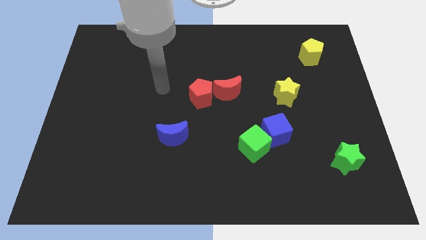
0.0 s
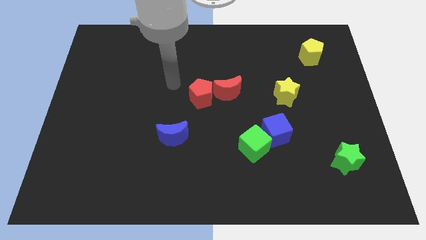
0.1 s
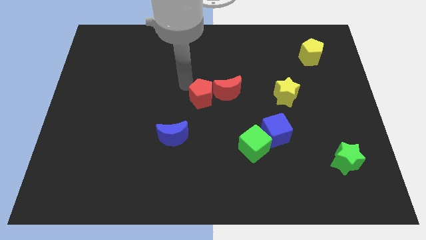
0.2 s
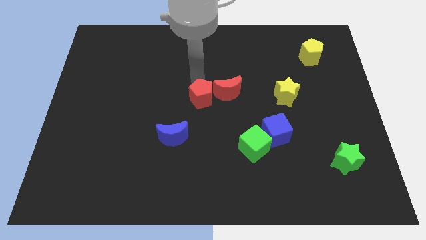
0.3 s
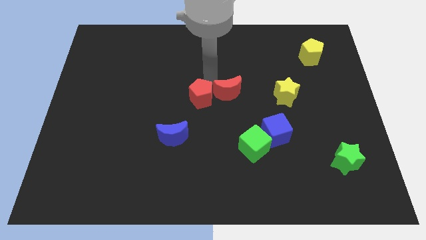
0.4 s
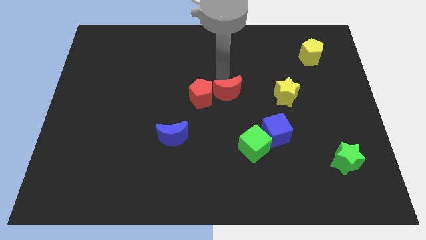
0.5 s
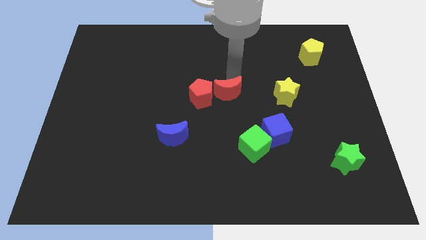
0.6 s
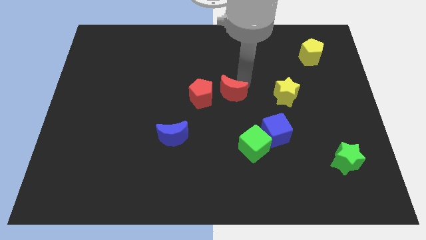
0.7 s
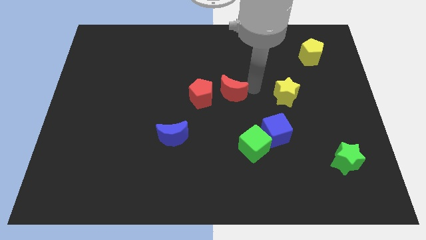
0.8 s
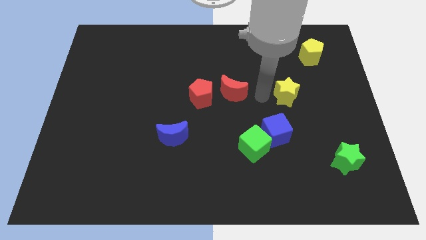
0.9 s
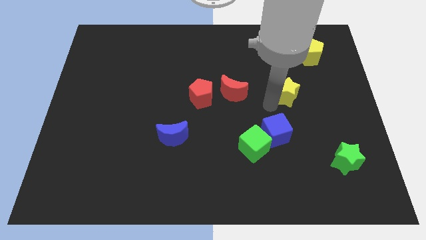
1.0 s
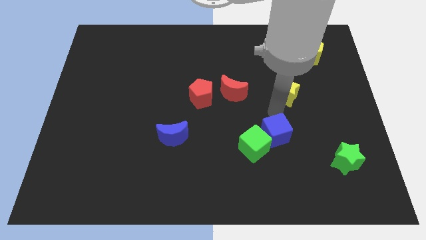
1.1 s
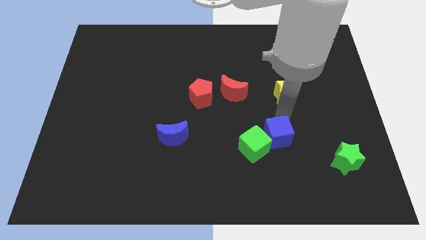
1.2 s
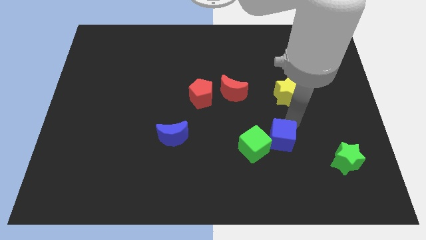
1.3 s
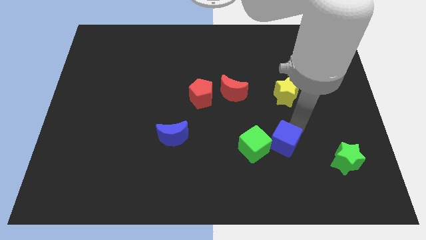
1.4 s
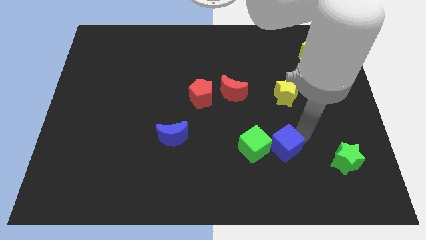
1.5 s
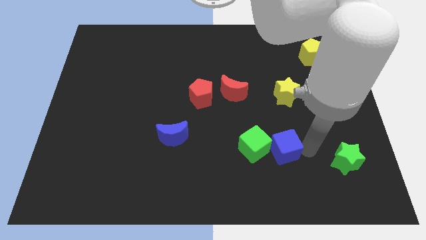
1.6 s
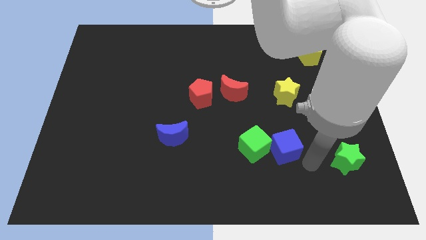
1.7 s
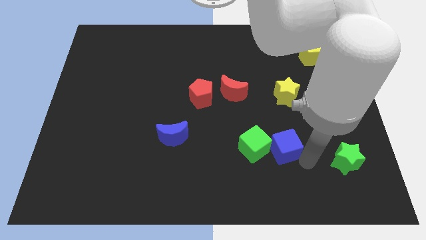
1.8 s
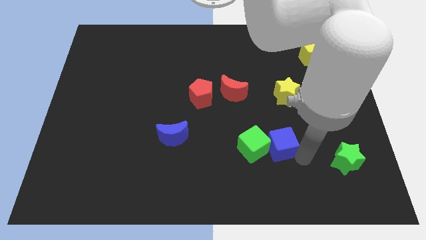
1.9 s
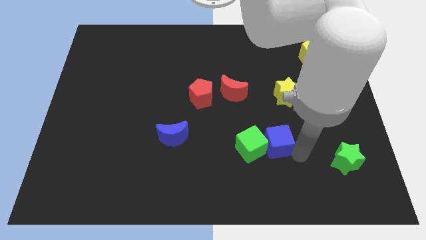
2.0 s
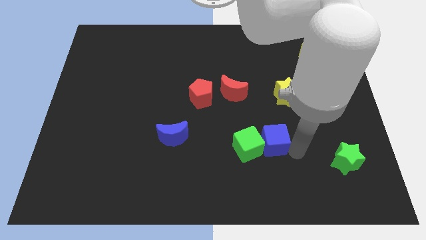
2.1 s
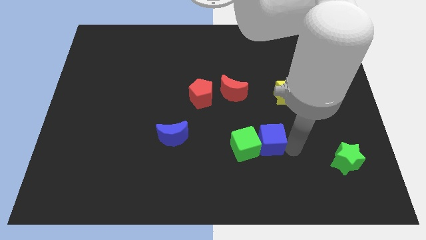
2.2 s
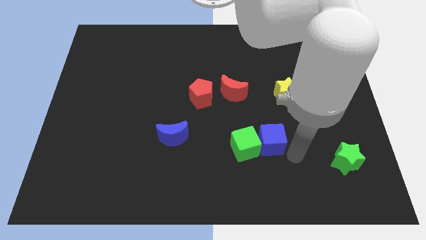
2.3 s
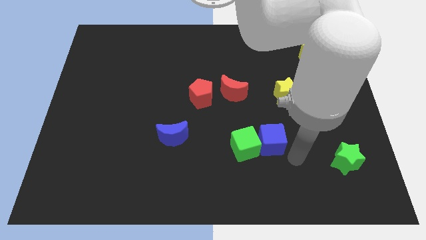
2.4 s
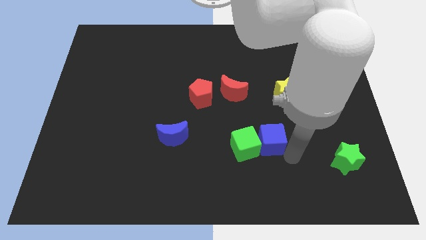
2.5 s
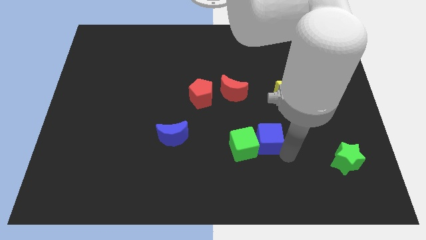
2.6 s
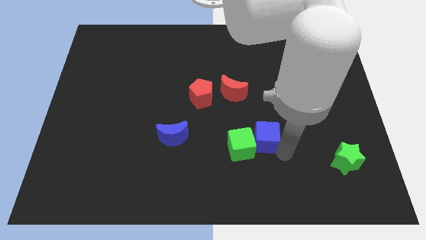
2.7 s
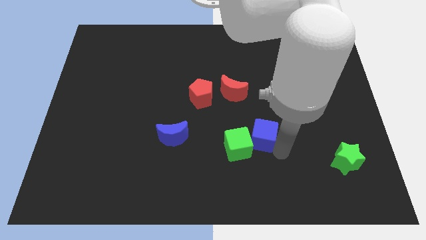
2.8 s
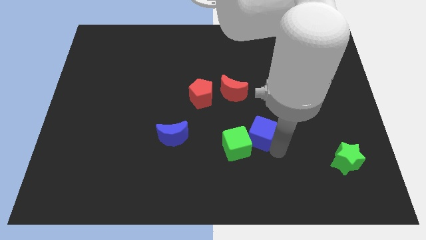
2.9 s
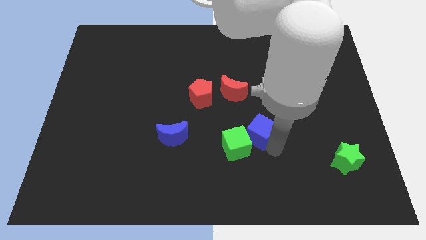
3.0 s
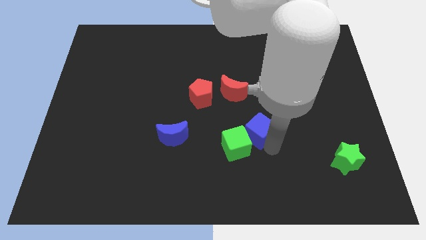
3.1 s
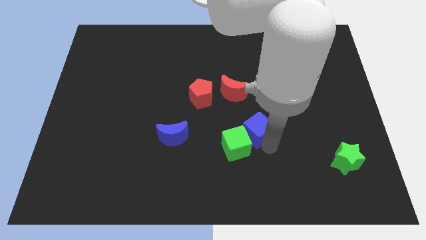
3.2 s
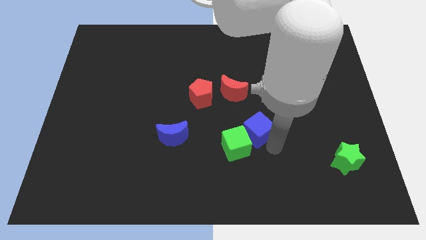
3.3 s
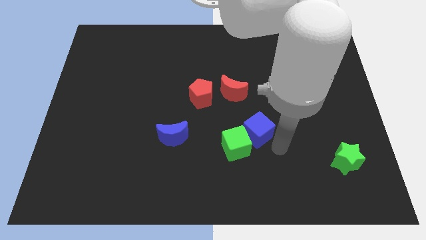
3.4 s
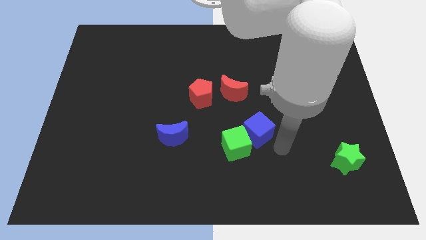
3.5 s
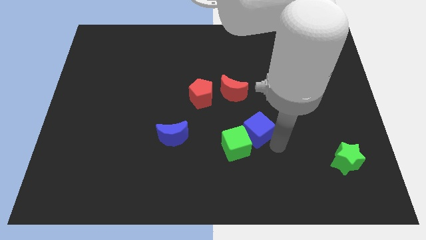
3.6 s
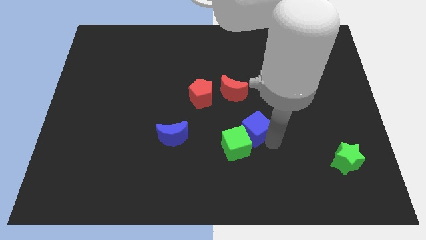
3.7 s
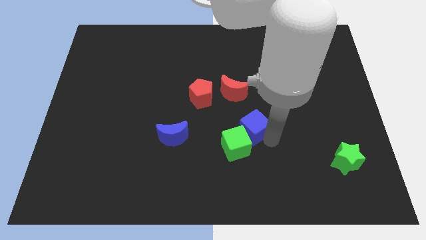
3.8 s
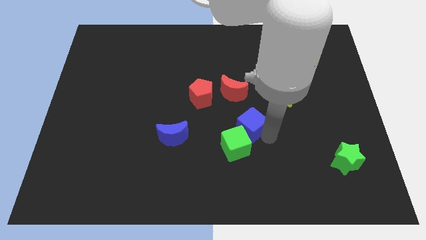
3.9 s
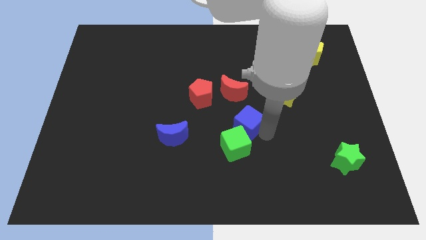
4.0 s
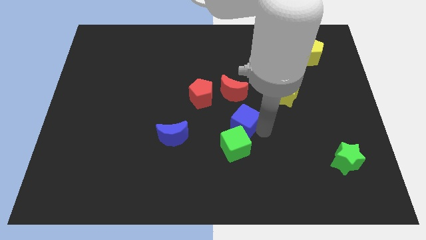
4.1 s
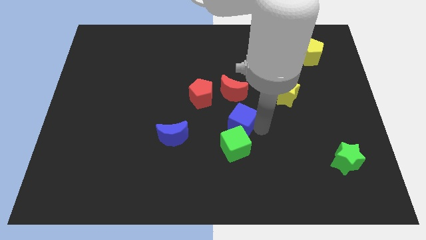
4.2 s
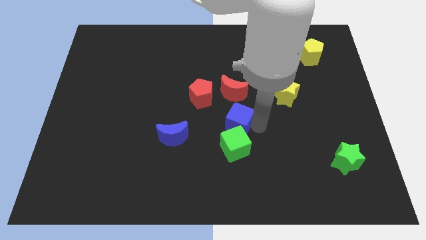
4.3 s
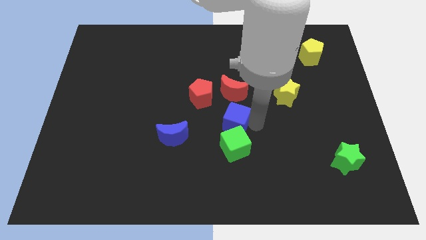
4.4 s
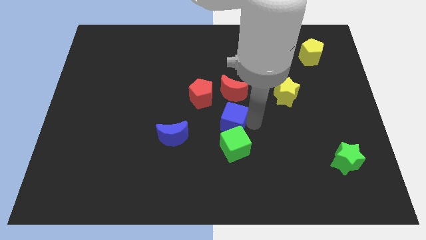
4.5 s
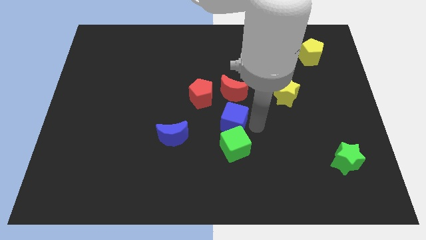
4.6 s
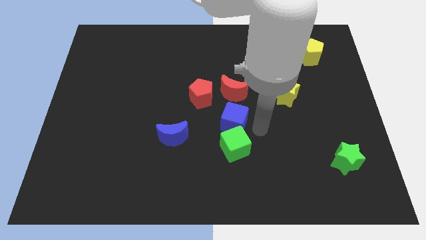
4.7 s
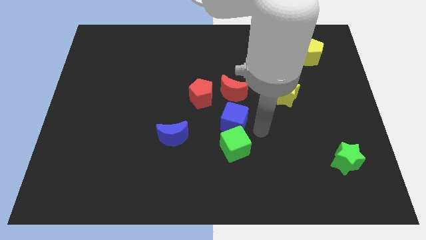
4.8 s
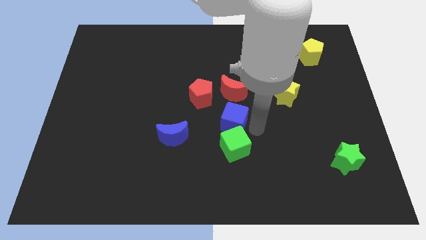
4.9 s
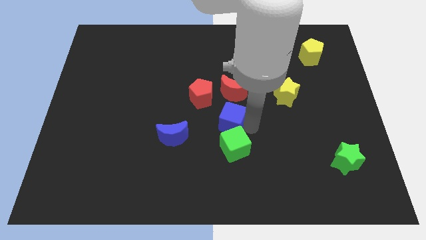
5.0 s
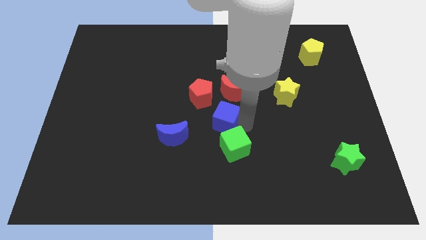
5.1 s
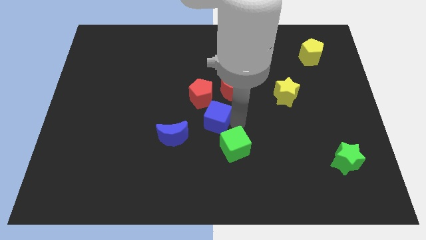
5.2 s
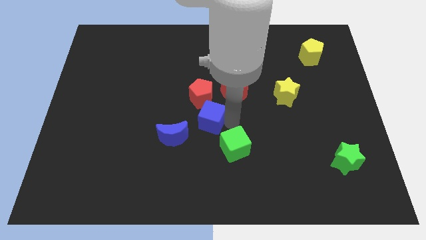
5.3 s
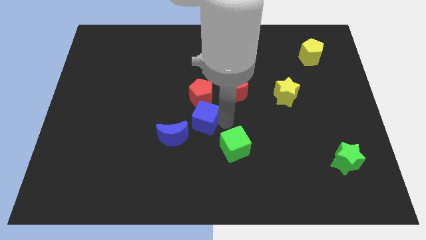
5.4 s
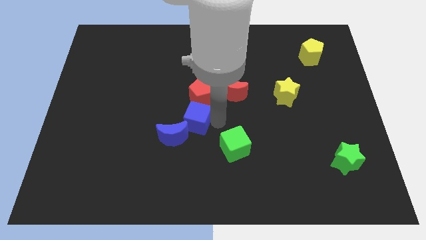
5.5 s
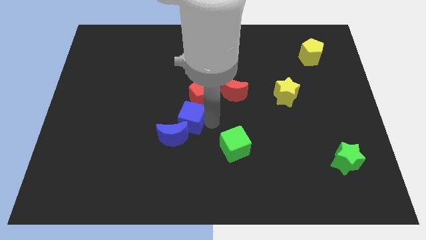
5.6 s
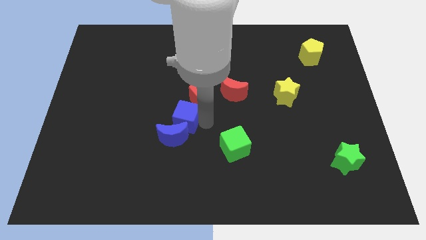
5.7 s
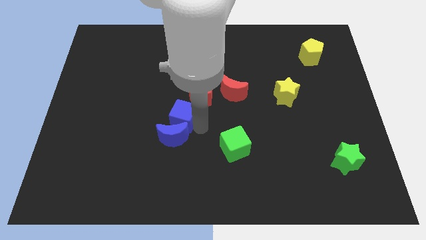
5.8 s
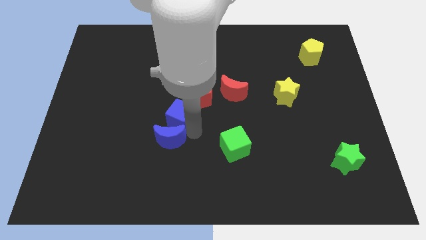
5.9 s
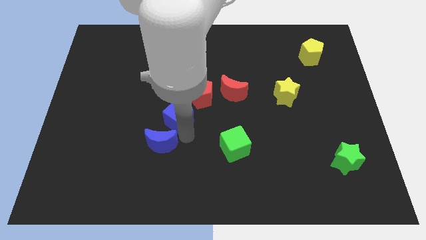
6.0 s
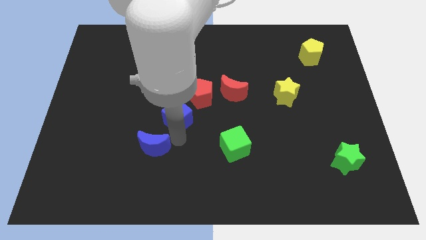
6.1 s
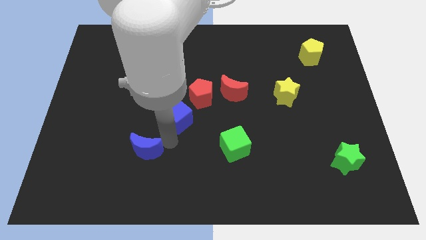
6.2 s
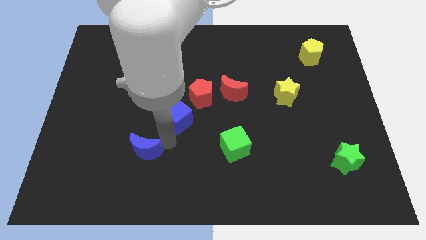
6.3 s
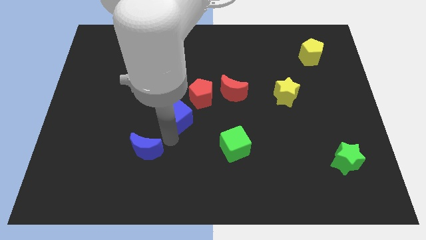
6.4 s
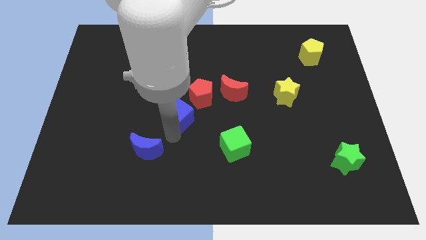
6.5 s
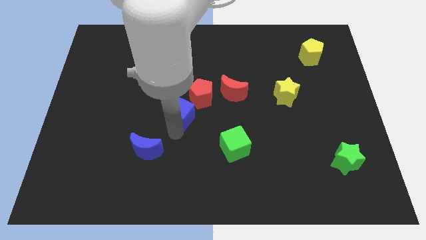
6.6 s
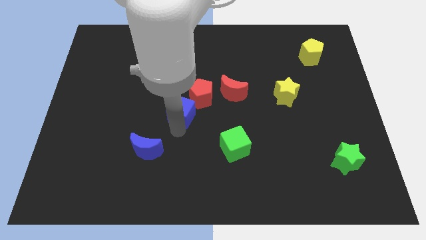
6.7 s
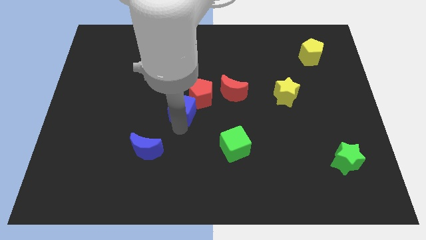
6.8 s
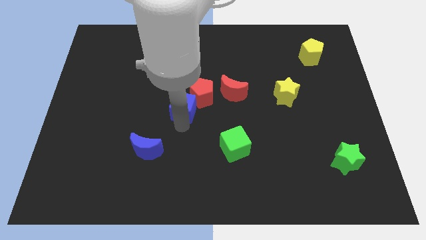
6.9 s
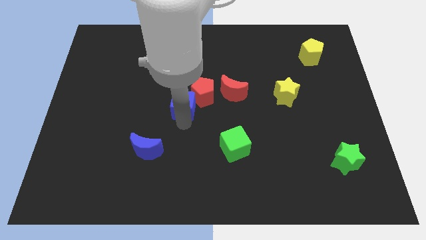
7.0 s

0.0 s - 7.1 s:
move the blue cube left of the red moon
